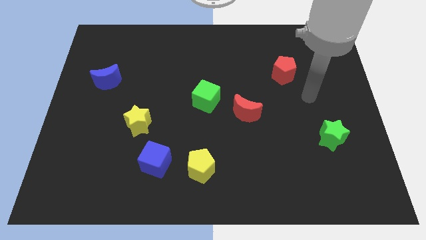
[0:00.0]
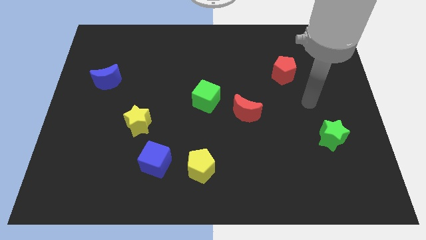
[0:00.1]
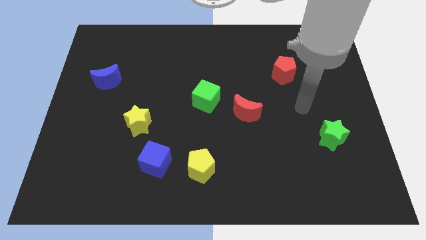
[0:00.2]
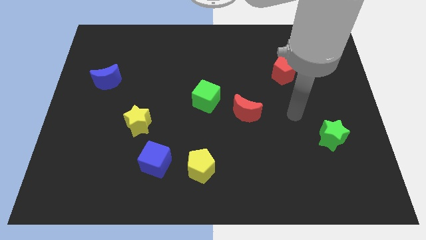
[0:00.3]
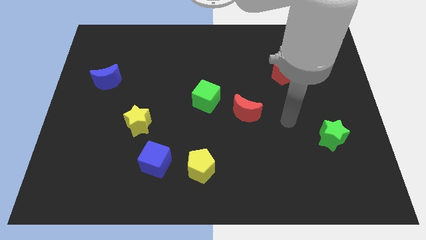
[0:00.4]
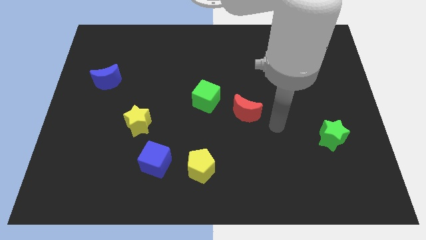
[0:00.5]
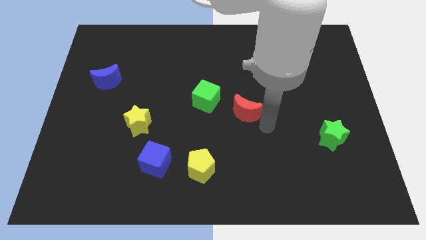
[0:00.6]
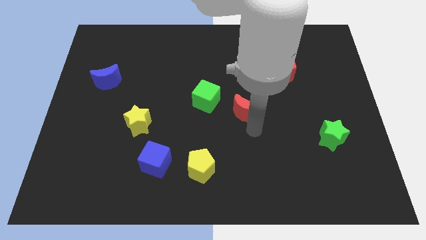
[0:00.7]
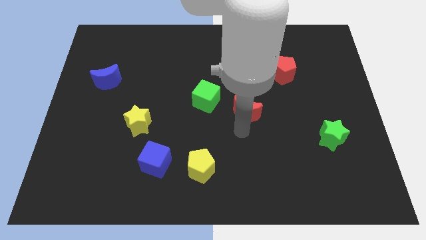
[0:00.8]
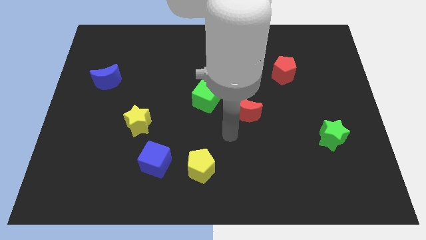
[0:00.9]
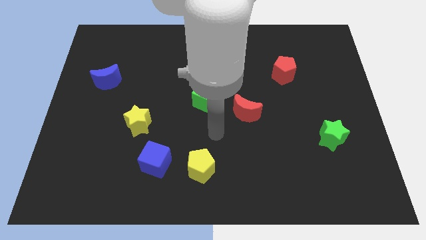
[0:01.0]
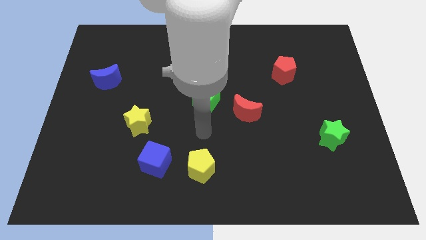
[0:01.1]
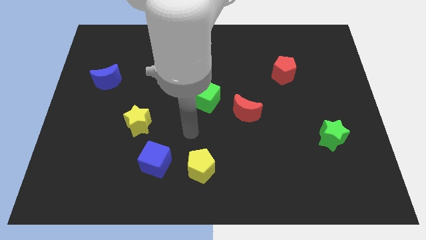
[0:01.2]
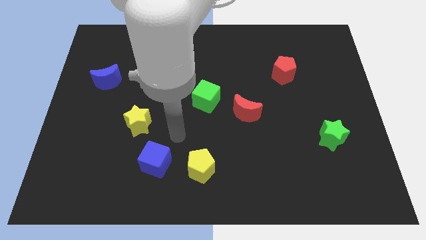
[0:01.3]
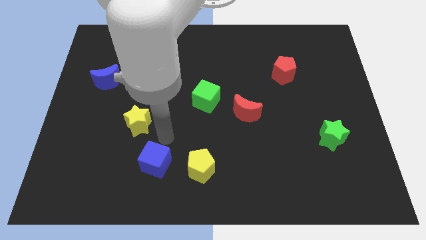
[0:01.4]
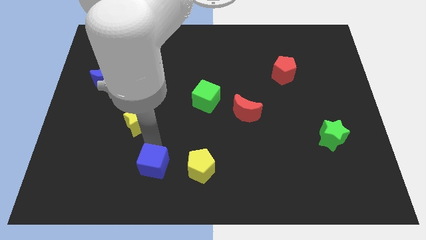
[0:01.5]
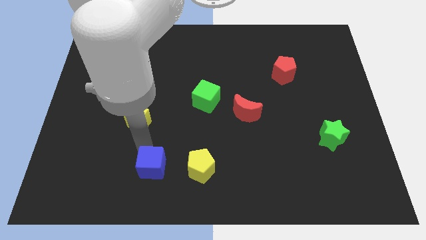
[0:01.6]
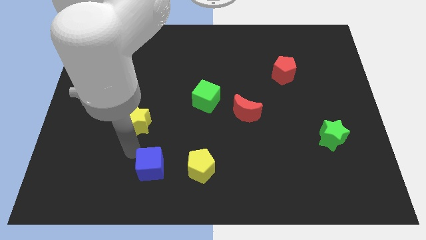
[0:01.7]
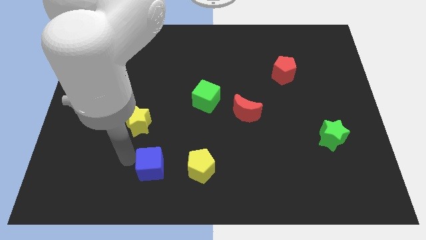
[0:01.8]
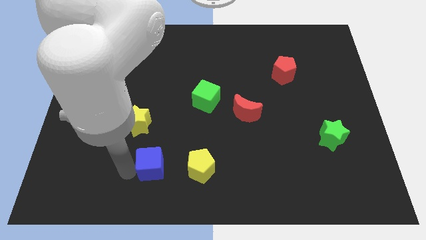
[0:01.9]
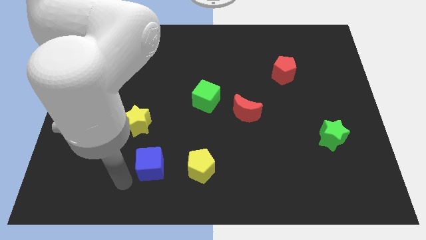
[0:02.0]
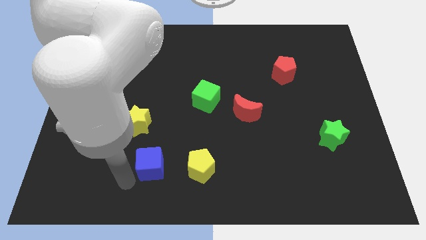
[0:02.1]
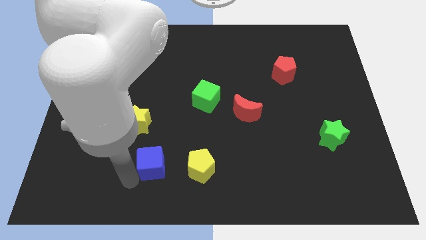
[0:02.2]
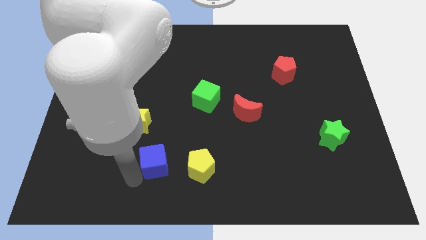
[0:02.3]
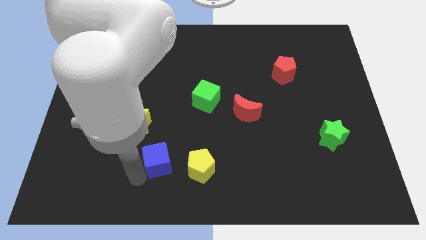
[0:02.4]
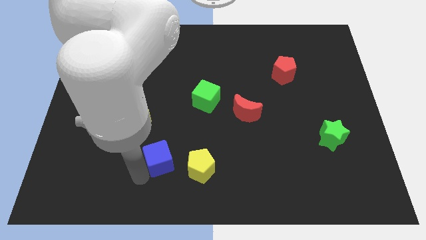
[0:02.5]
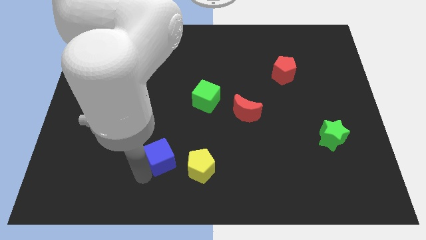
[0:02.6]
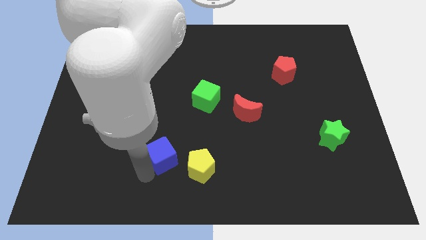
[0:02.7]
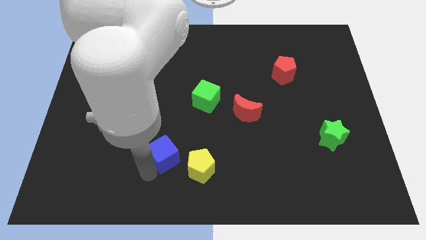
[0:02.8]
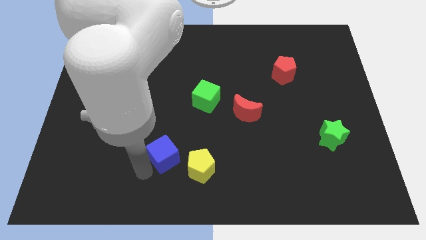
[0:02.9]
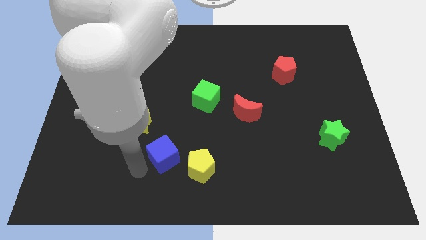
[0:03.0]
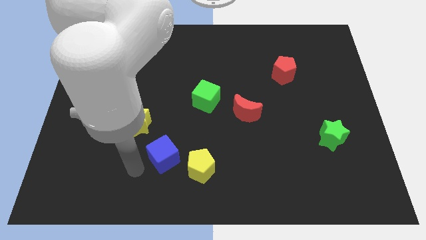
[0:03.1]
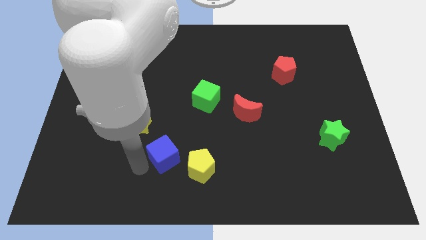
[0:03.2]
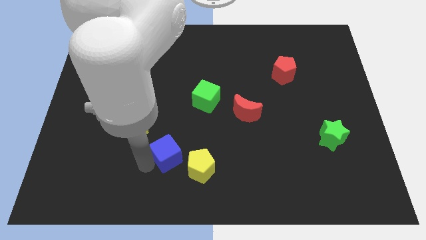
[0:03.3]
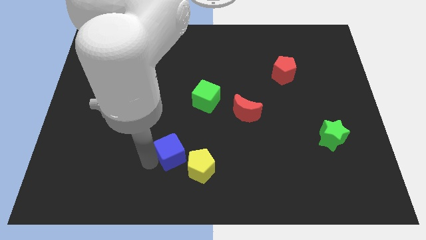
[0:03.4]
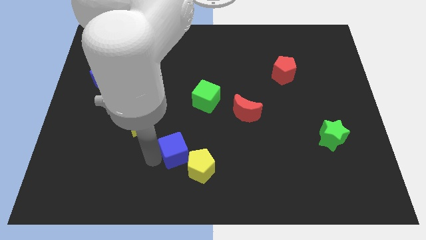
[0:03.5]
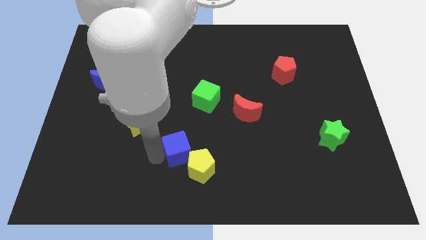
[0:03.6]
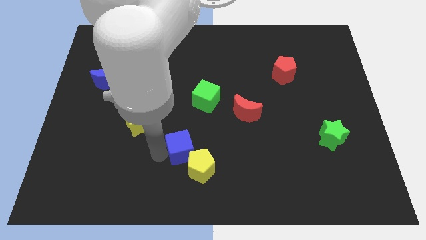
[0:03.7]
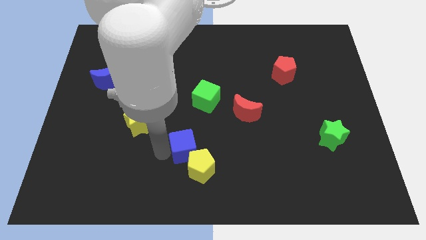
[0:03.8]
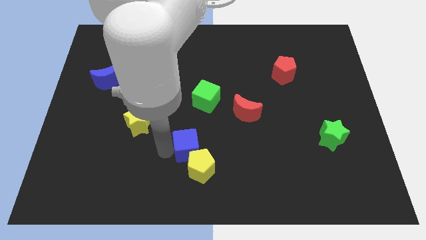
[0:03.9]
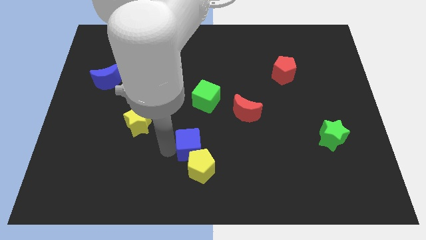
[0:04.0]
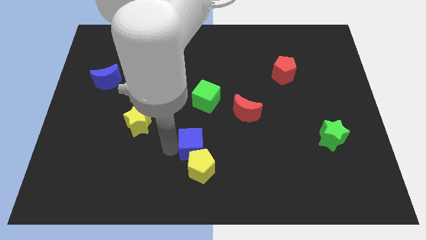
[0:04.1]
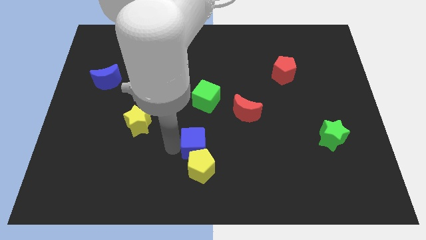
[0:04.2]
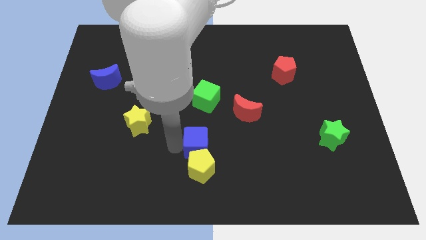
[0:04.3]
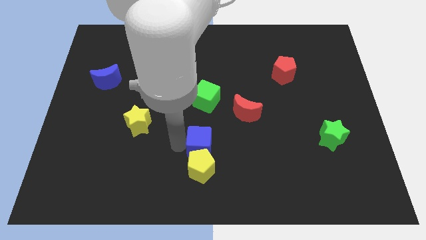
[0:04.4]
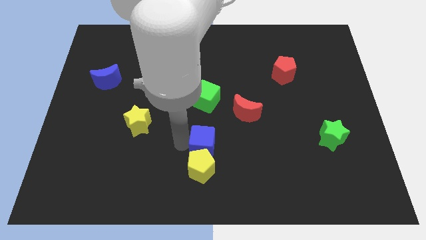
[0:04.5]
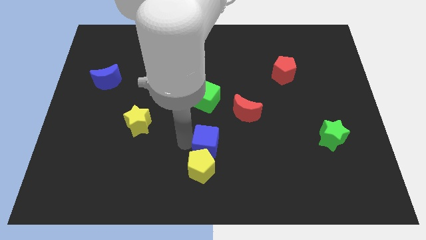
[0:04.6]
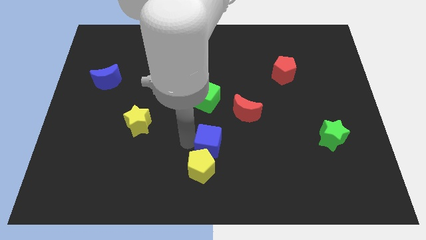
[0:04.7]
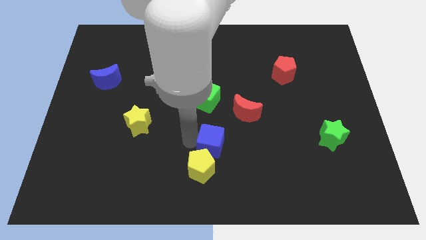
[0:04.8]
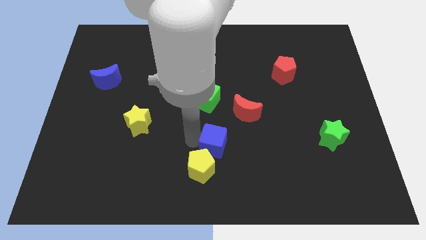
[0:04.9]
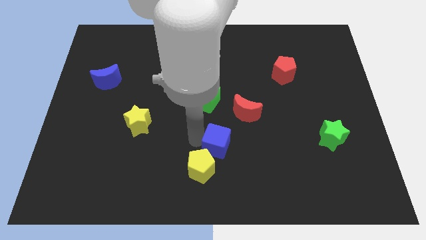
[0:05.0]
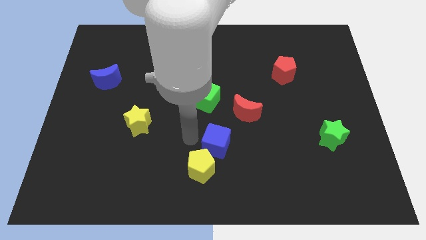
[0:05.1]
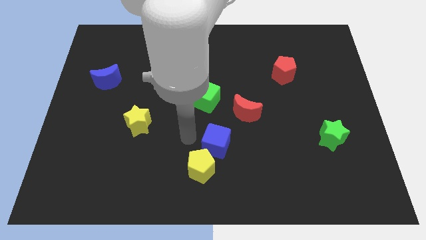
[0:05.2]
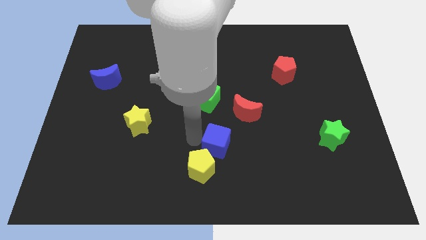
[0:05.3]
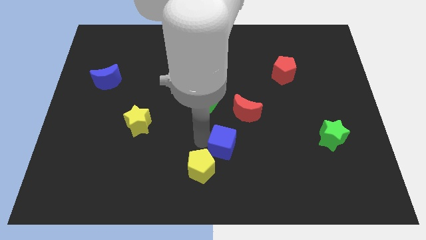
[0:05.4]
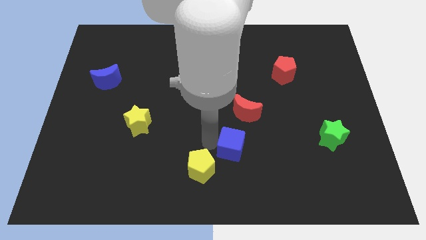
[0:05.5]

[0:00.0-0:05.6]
push the blue cube to the bottom side of the red moon

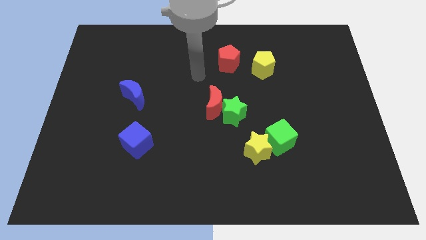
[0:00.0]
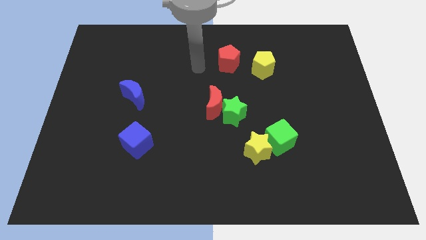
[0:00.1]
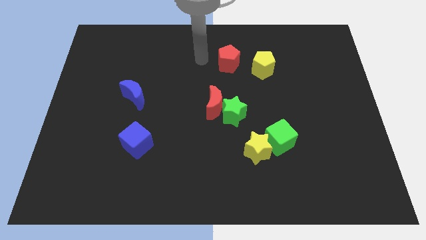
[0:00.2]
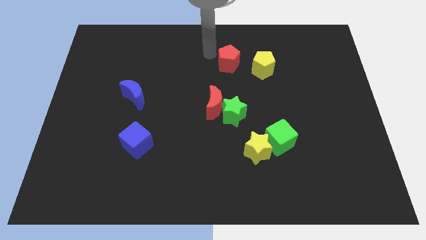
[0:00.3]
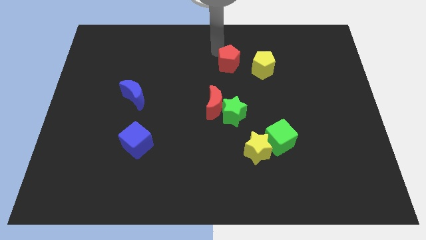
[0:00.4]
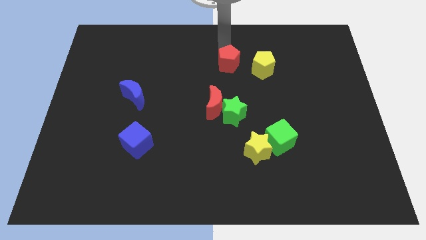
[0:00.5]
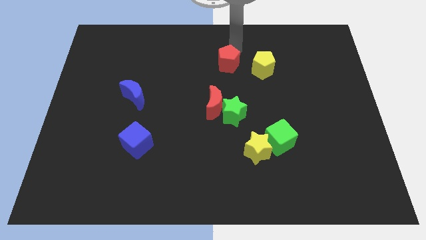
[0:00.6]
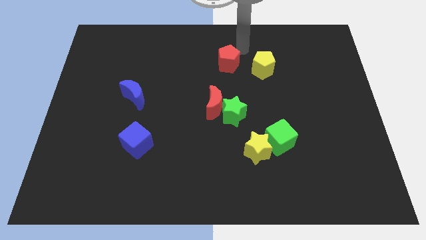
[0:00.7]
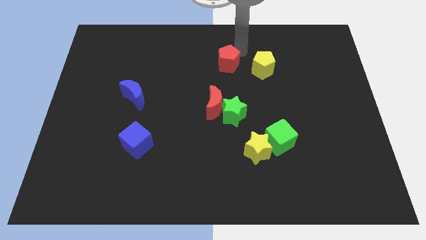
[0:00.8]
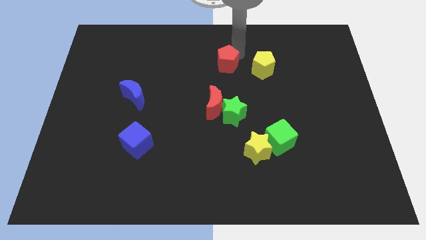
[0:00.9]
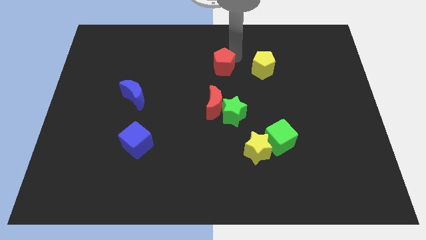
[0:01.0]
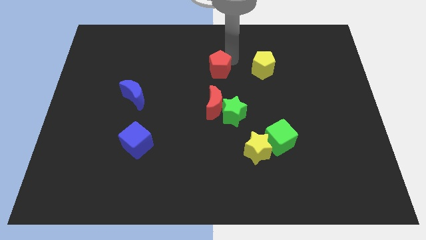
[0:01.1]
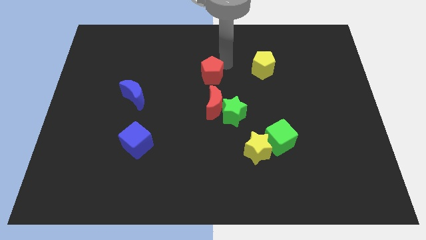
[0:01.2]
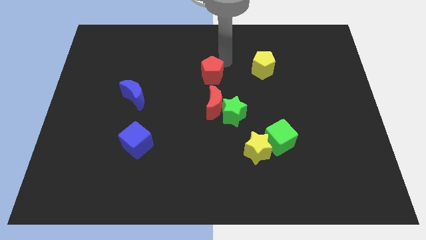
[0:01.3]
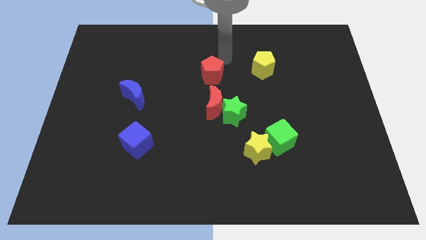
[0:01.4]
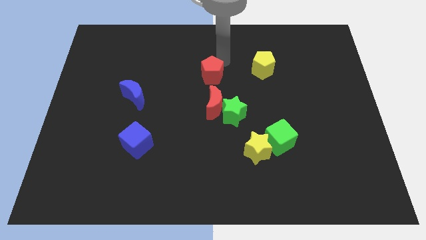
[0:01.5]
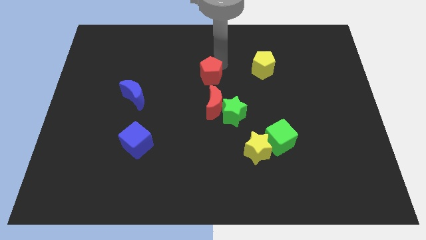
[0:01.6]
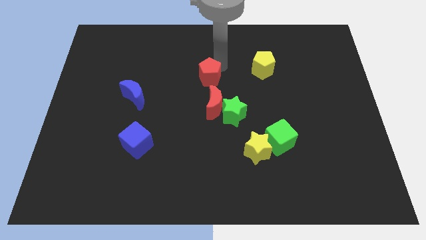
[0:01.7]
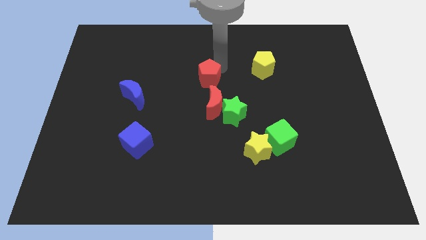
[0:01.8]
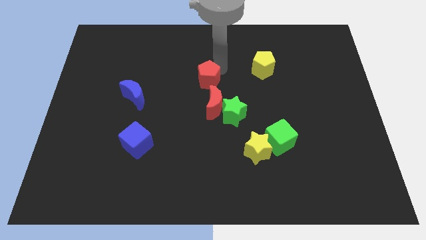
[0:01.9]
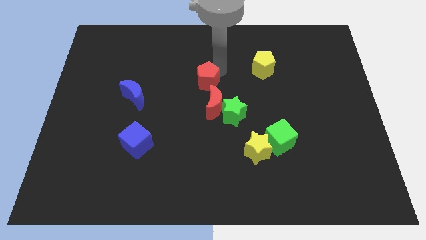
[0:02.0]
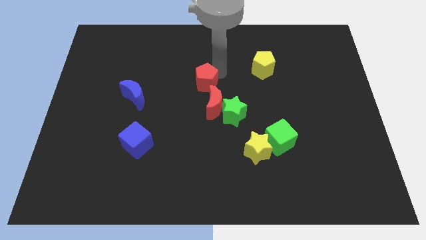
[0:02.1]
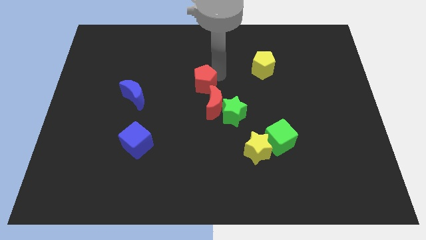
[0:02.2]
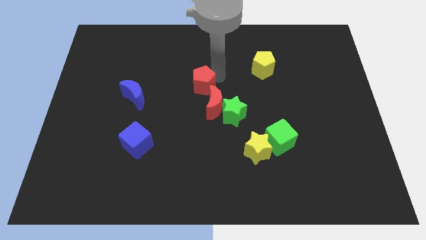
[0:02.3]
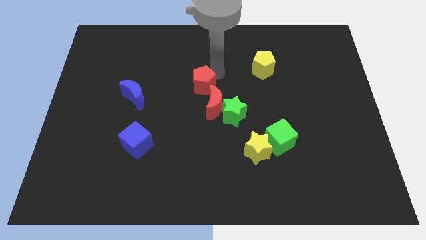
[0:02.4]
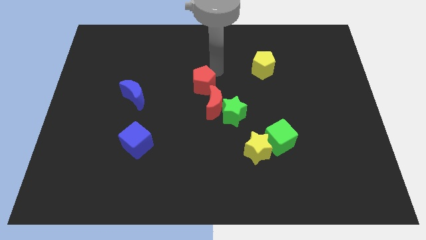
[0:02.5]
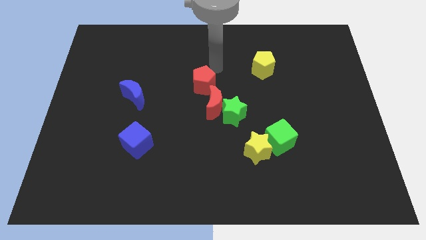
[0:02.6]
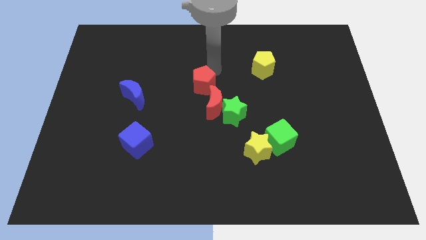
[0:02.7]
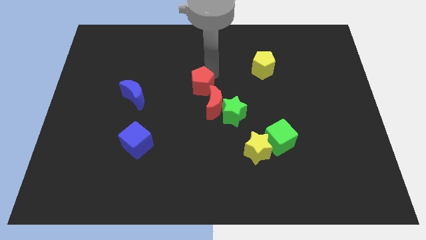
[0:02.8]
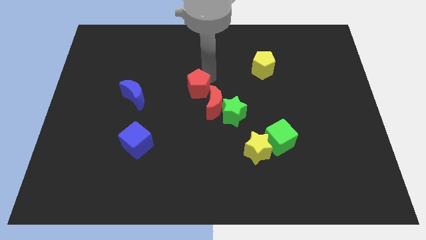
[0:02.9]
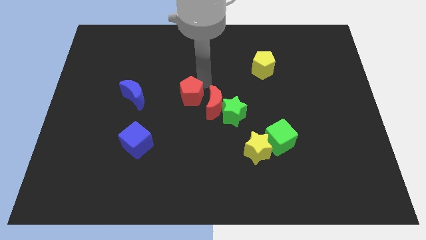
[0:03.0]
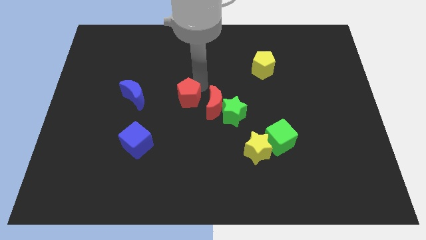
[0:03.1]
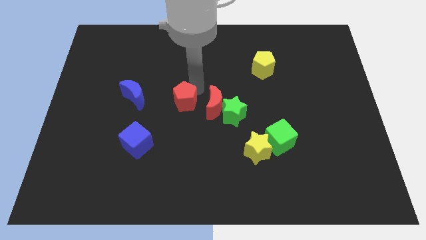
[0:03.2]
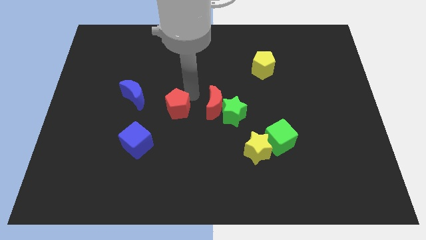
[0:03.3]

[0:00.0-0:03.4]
put the red pentagon diagonally up and to the right of the blue cube
